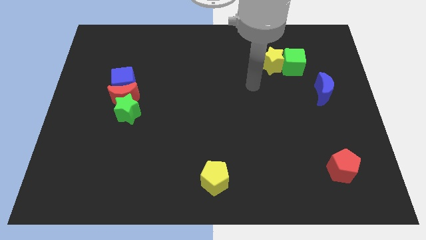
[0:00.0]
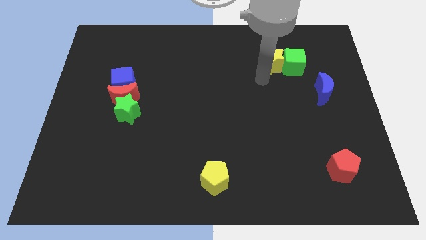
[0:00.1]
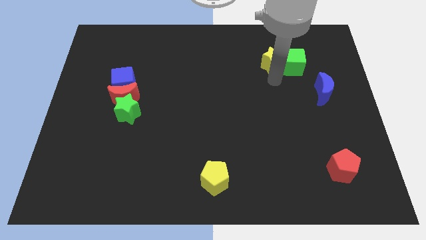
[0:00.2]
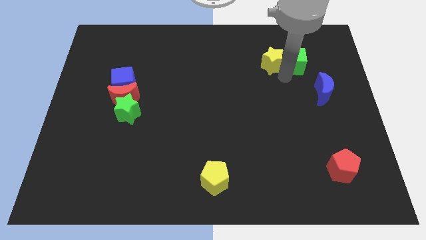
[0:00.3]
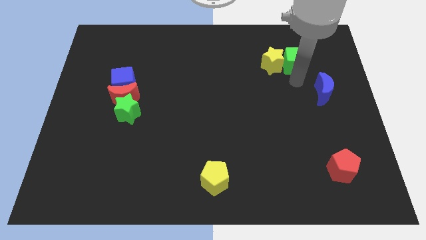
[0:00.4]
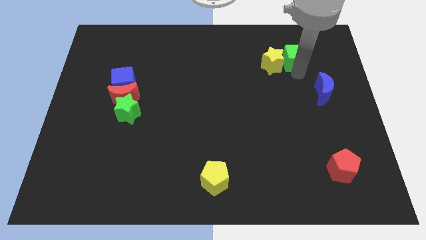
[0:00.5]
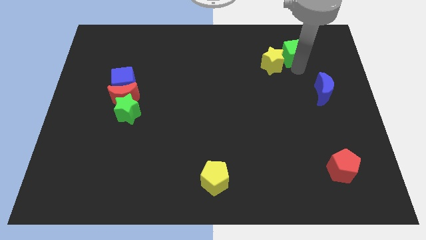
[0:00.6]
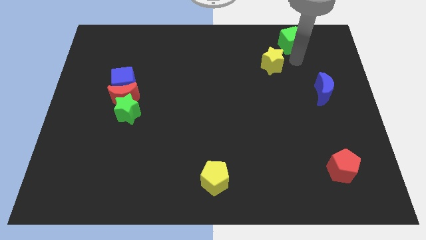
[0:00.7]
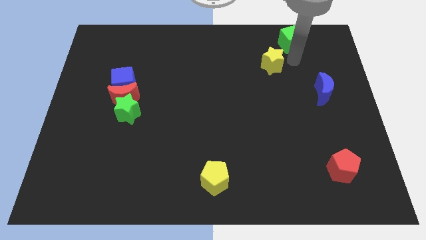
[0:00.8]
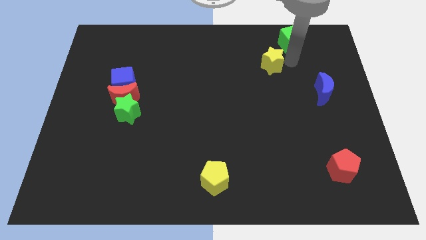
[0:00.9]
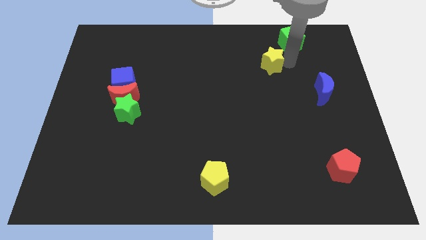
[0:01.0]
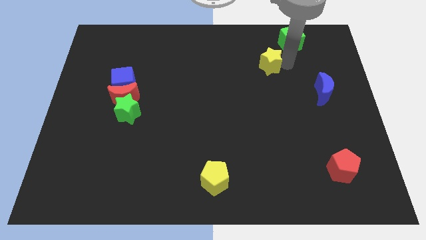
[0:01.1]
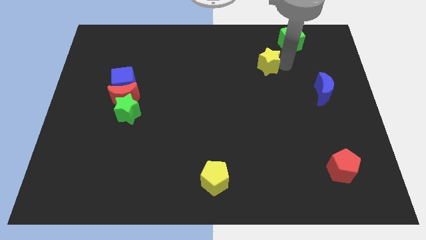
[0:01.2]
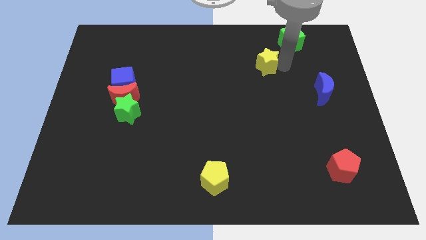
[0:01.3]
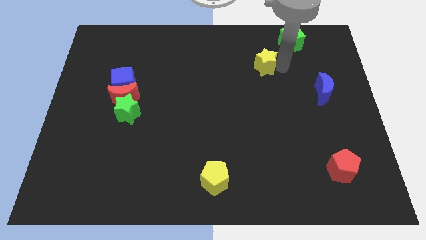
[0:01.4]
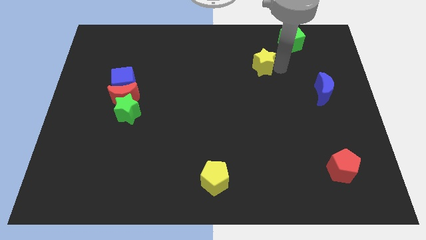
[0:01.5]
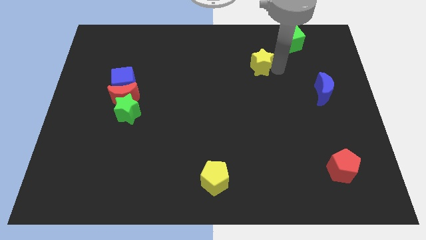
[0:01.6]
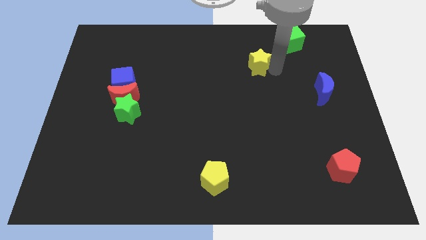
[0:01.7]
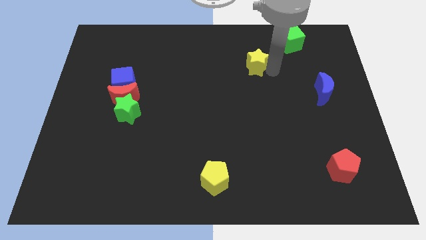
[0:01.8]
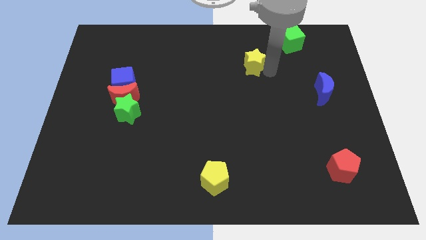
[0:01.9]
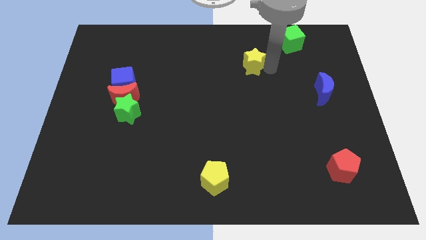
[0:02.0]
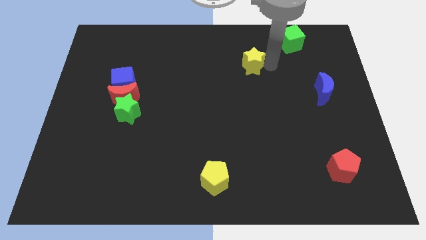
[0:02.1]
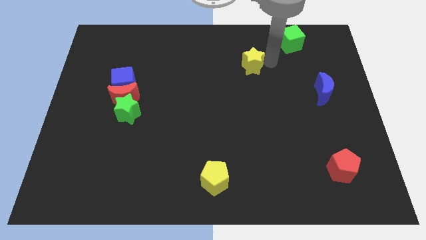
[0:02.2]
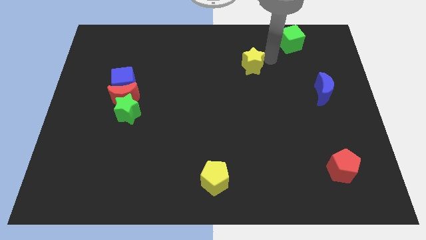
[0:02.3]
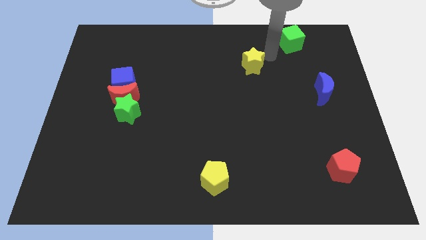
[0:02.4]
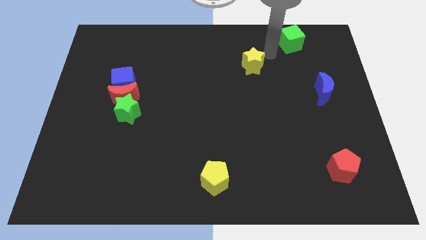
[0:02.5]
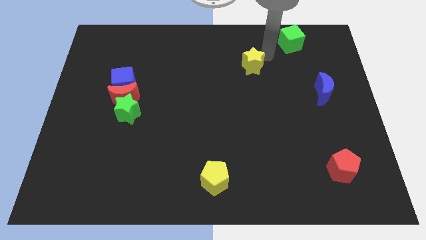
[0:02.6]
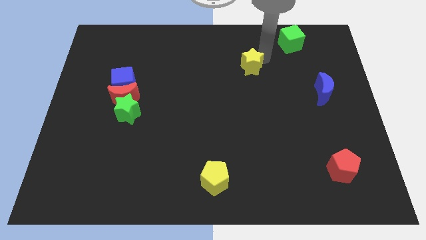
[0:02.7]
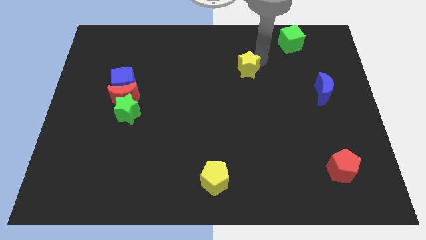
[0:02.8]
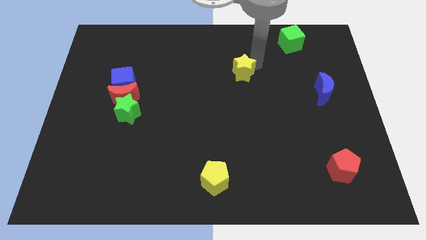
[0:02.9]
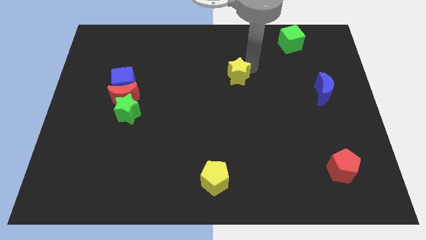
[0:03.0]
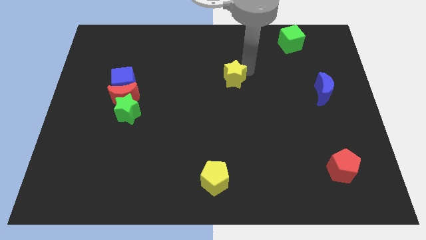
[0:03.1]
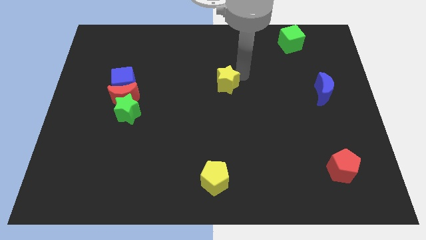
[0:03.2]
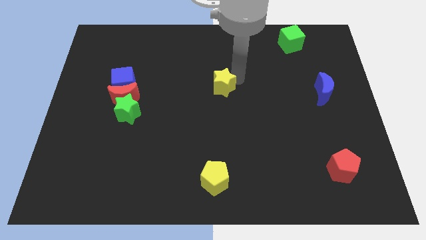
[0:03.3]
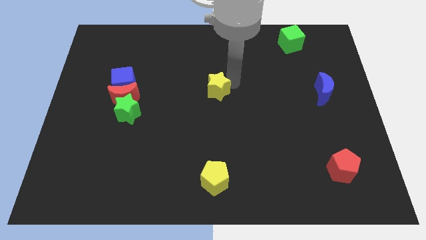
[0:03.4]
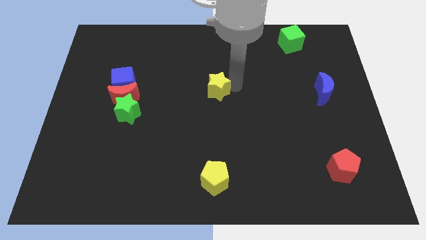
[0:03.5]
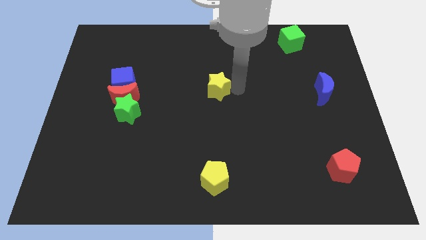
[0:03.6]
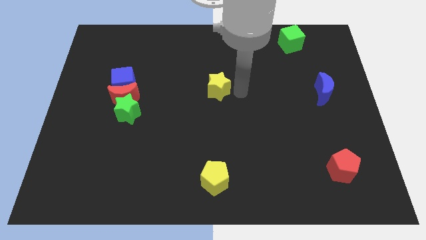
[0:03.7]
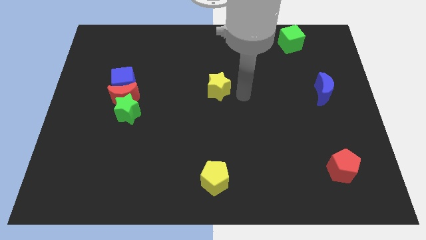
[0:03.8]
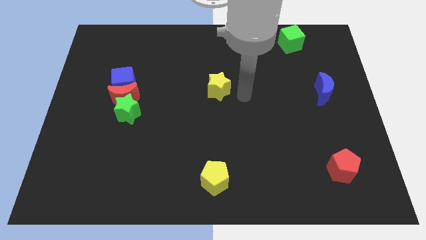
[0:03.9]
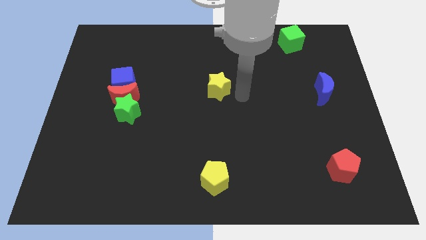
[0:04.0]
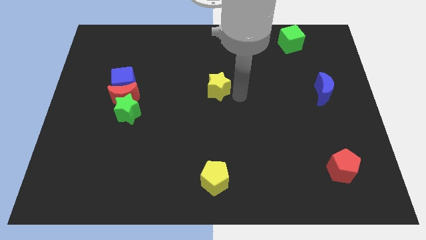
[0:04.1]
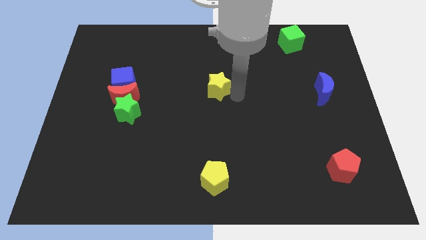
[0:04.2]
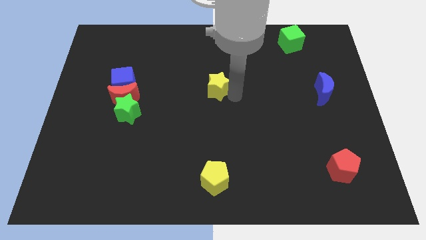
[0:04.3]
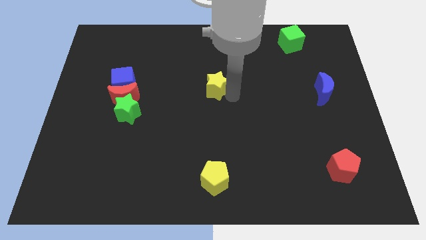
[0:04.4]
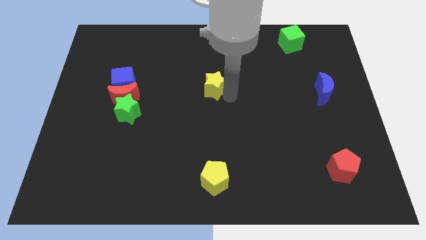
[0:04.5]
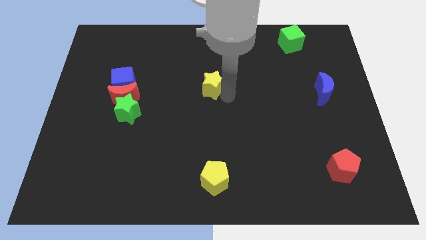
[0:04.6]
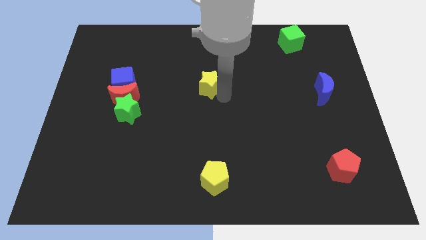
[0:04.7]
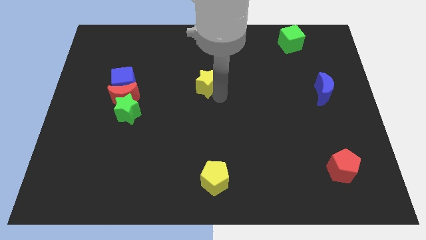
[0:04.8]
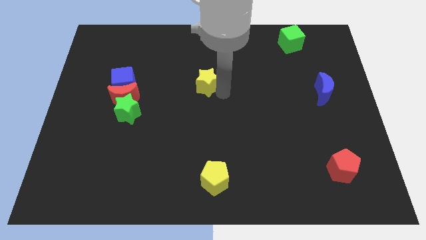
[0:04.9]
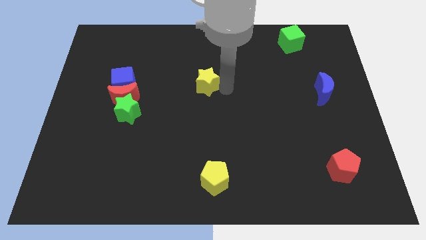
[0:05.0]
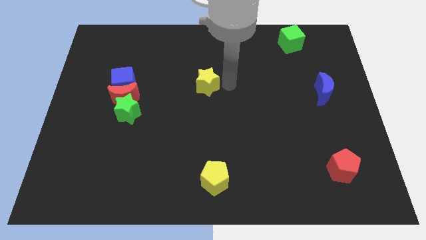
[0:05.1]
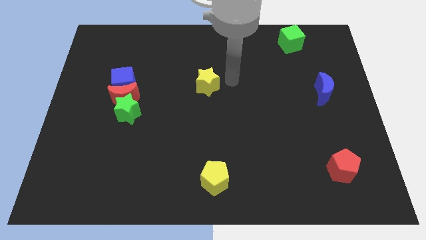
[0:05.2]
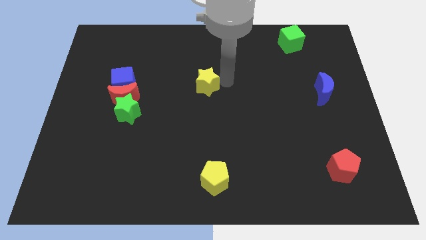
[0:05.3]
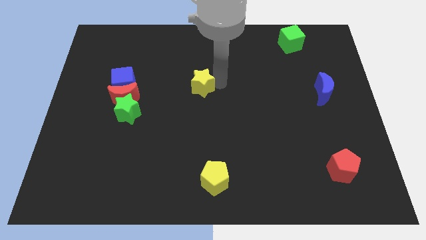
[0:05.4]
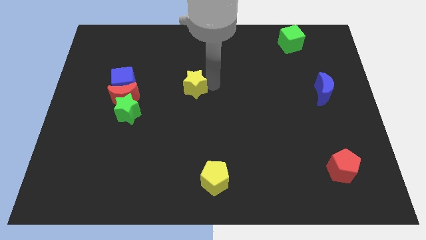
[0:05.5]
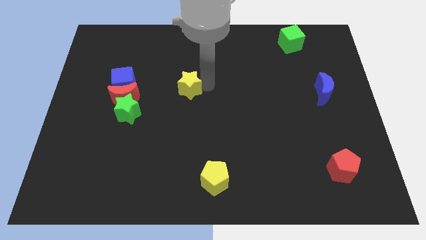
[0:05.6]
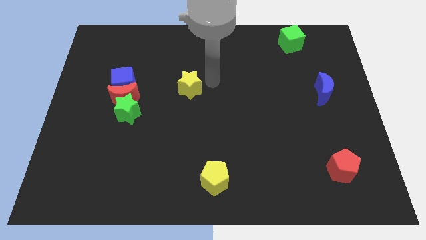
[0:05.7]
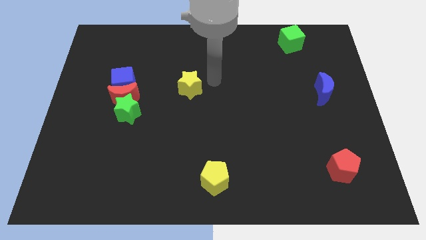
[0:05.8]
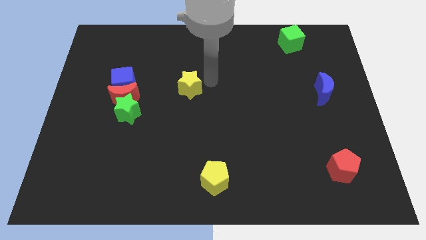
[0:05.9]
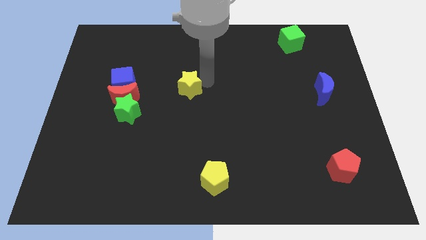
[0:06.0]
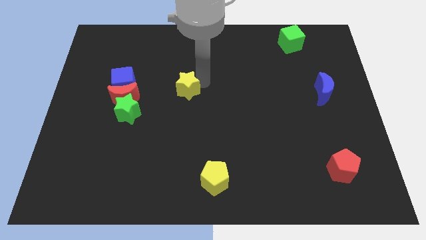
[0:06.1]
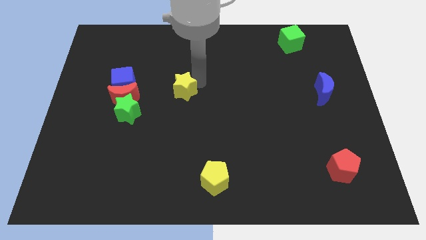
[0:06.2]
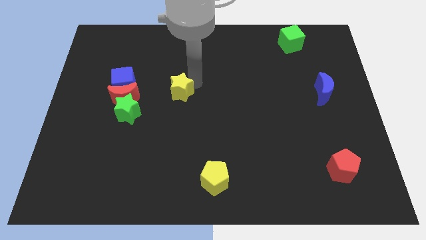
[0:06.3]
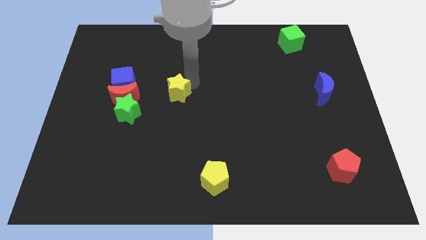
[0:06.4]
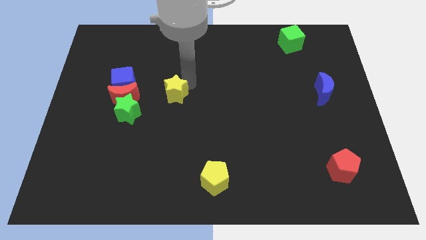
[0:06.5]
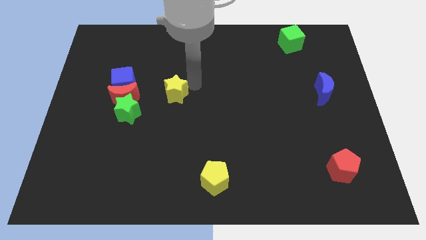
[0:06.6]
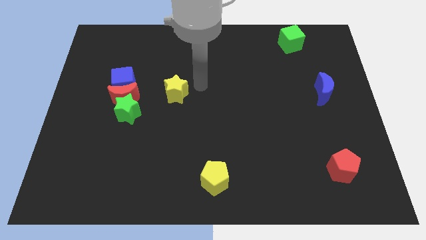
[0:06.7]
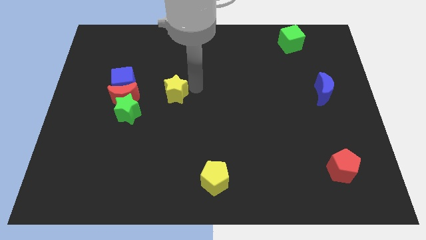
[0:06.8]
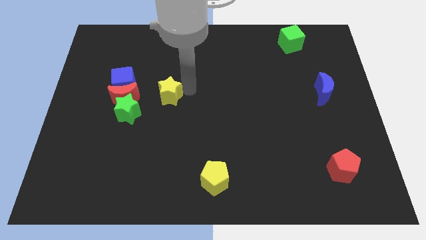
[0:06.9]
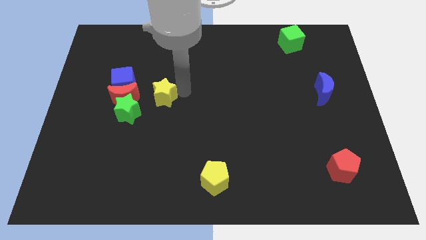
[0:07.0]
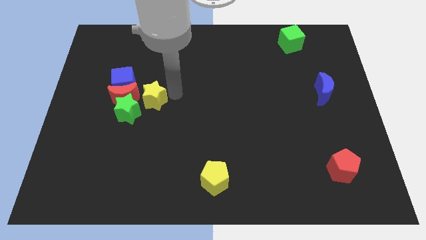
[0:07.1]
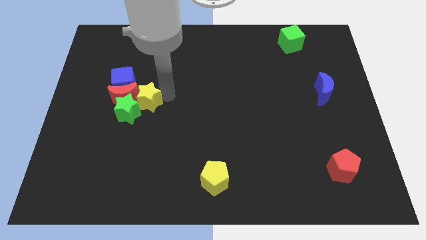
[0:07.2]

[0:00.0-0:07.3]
push the yellow star close to the green star
